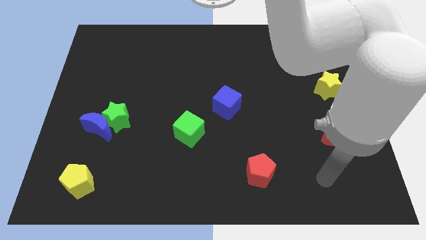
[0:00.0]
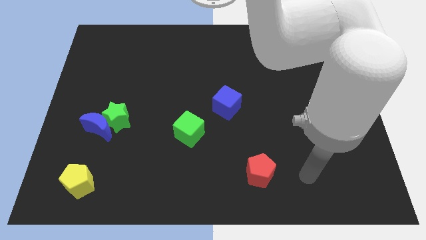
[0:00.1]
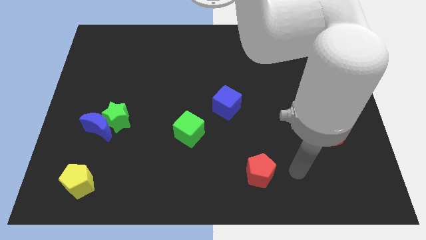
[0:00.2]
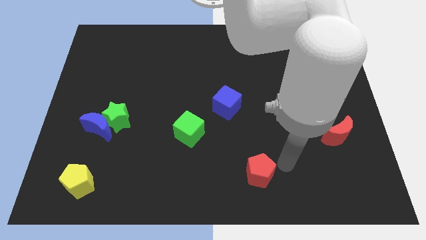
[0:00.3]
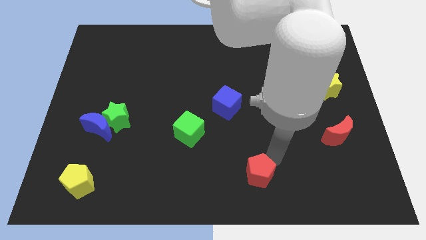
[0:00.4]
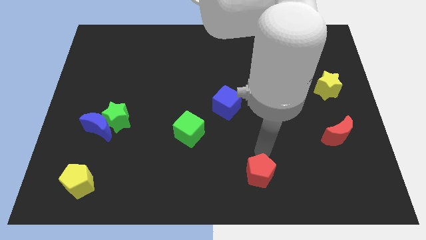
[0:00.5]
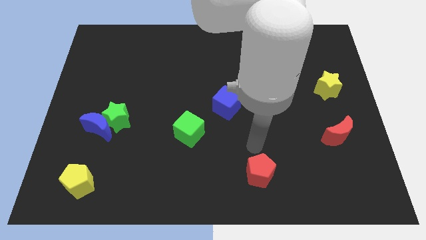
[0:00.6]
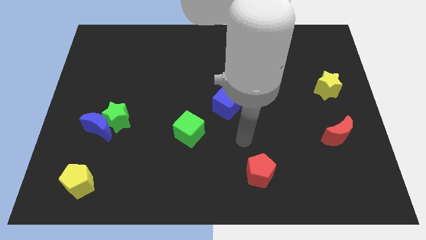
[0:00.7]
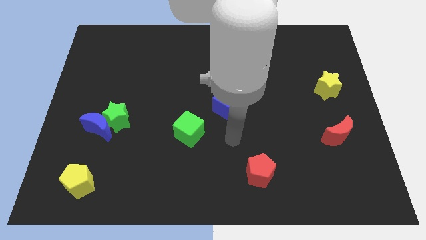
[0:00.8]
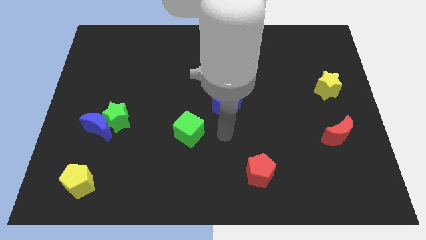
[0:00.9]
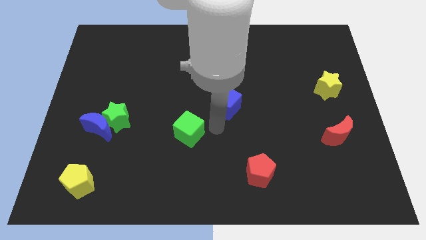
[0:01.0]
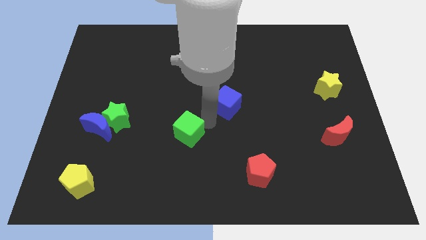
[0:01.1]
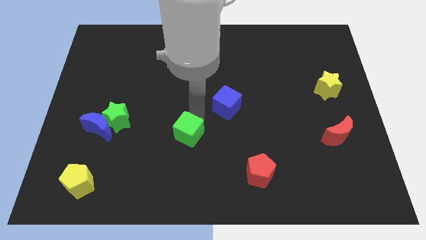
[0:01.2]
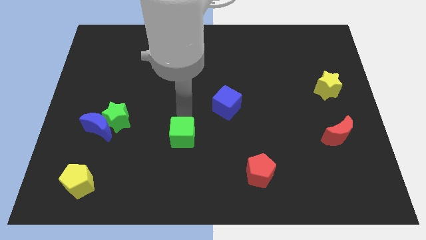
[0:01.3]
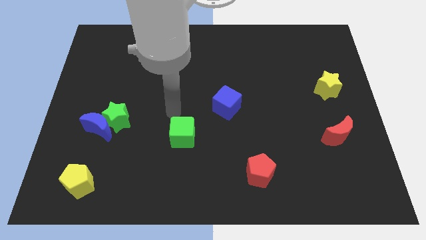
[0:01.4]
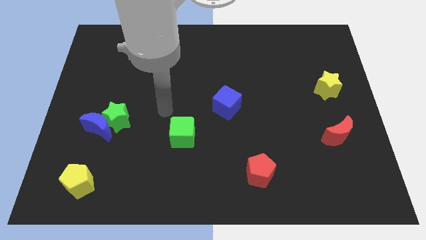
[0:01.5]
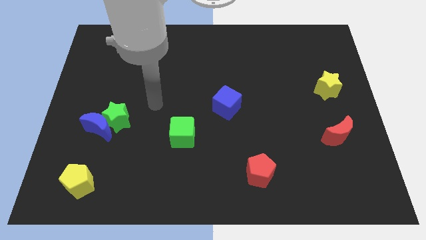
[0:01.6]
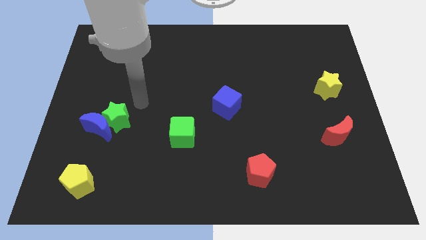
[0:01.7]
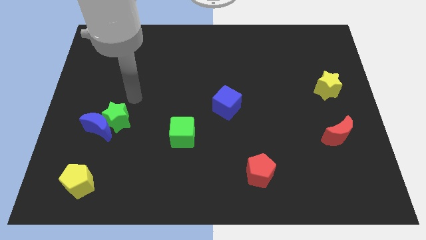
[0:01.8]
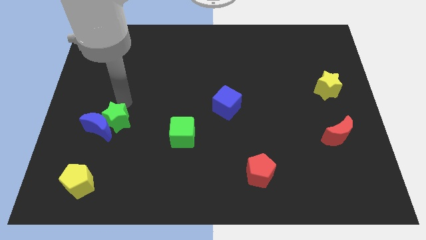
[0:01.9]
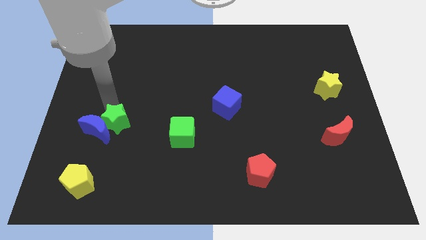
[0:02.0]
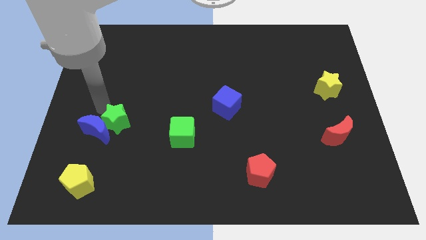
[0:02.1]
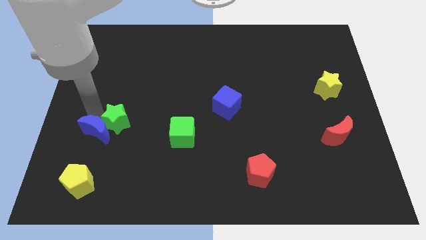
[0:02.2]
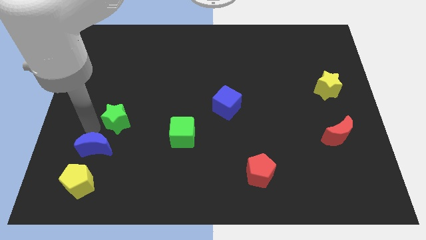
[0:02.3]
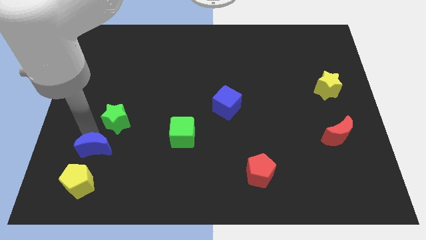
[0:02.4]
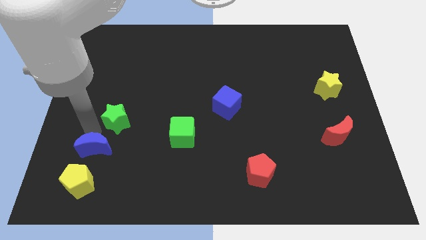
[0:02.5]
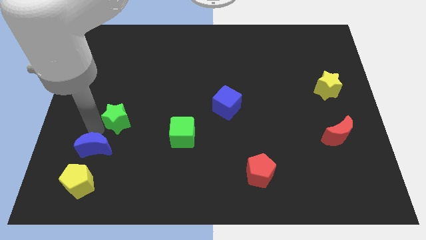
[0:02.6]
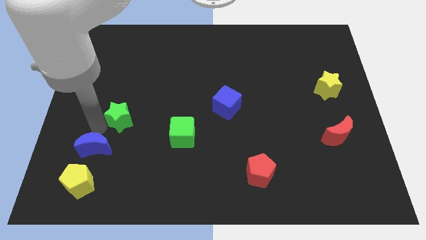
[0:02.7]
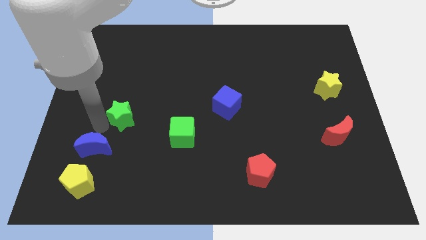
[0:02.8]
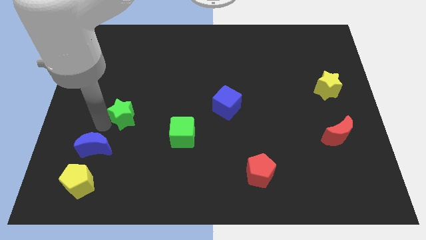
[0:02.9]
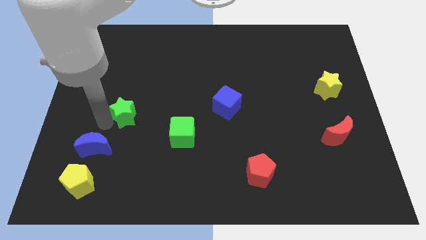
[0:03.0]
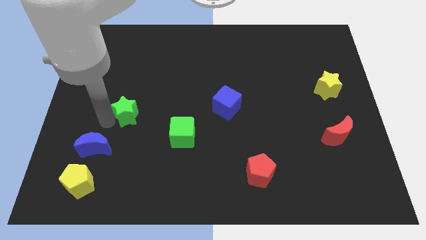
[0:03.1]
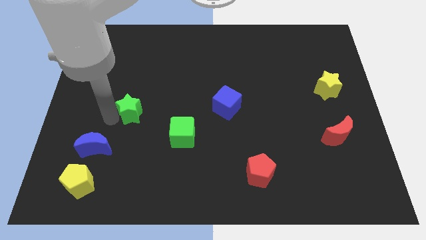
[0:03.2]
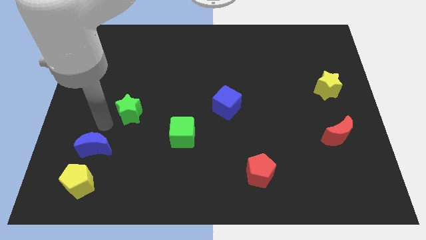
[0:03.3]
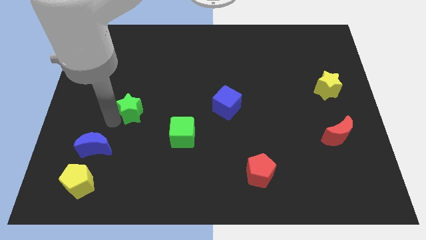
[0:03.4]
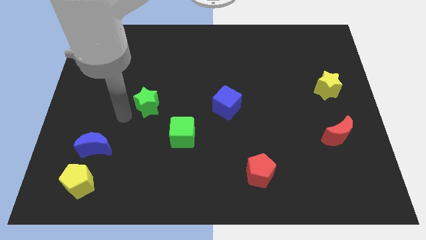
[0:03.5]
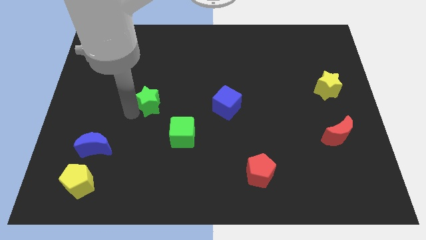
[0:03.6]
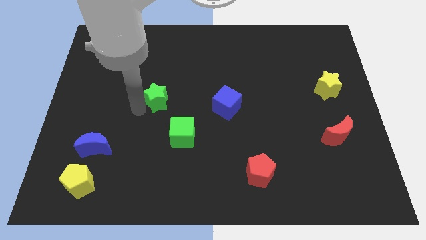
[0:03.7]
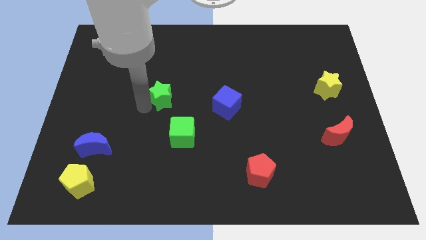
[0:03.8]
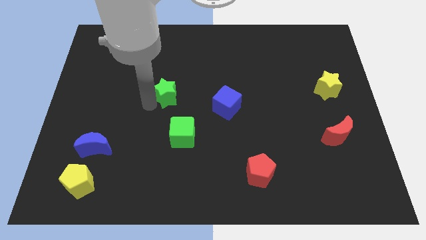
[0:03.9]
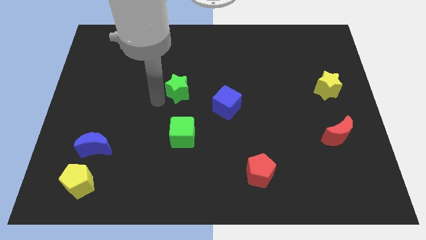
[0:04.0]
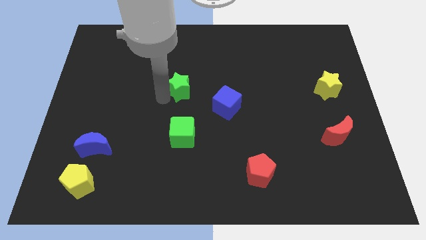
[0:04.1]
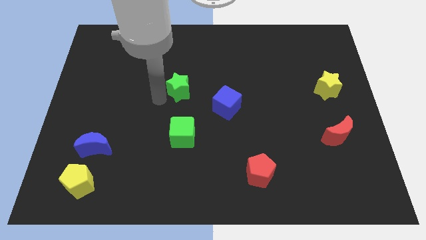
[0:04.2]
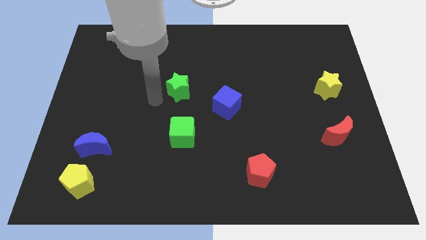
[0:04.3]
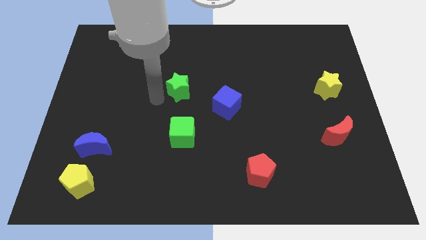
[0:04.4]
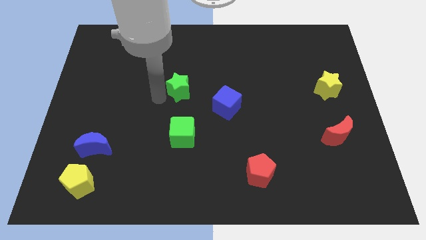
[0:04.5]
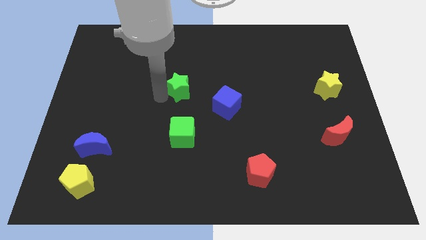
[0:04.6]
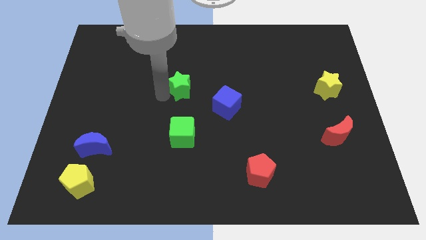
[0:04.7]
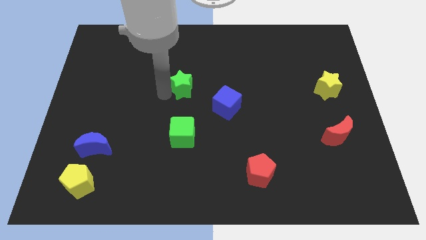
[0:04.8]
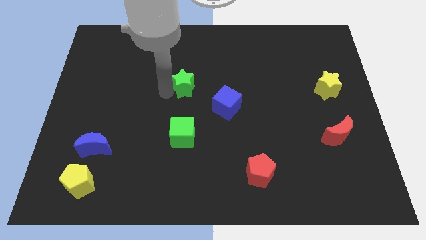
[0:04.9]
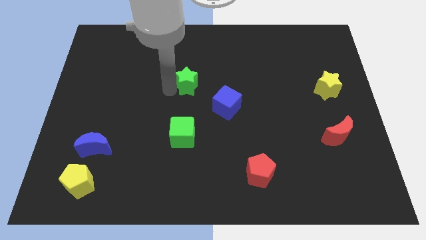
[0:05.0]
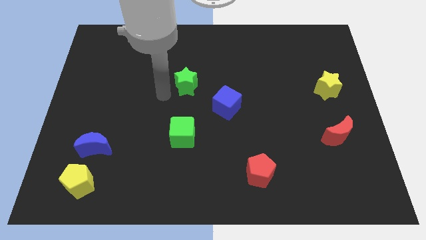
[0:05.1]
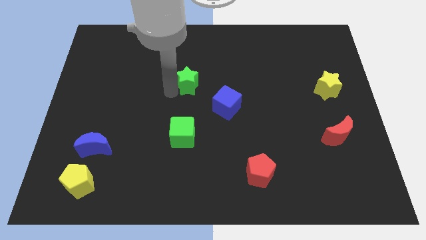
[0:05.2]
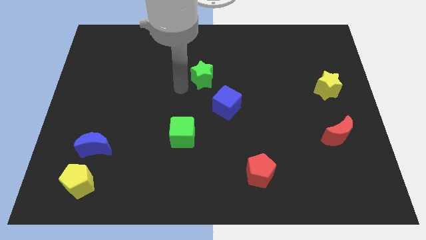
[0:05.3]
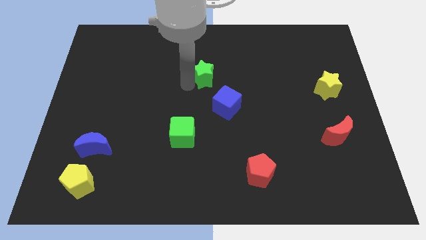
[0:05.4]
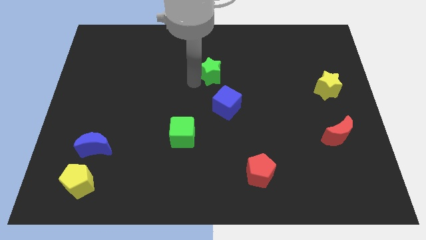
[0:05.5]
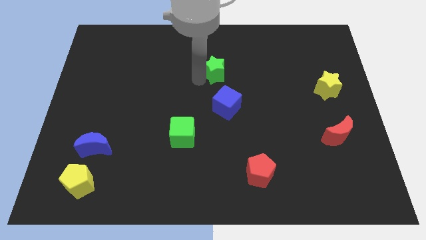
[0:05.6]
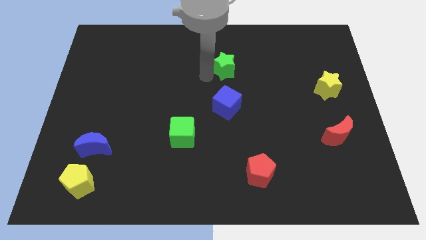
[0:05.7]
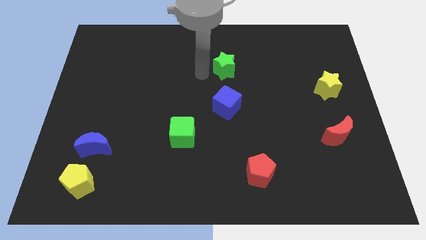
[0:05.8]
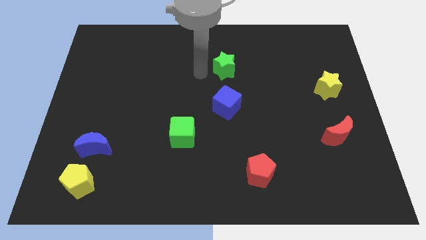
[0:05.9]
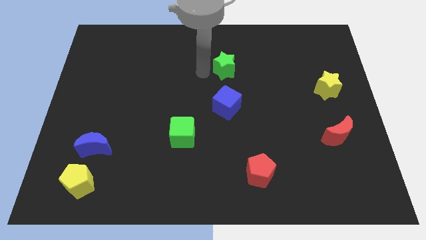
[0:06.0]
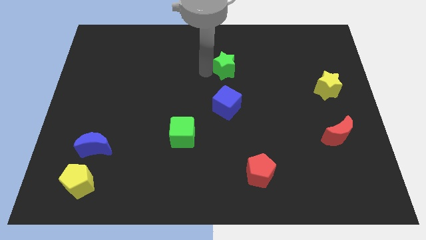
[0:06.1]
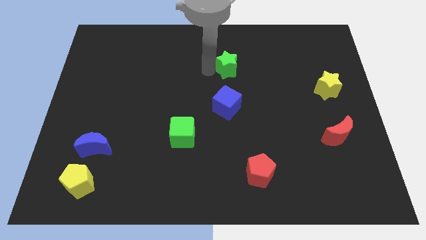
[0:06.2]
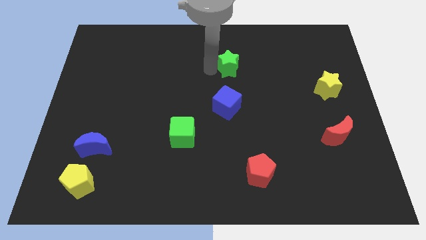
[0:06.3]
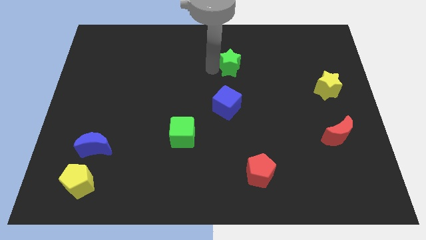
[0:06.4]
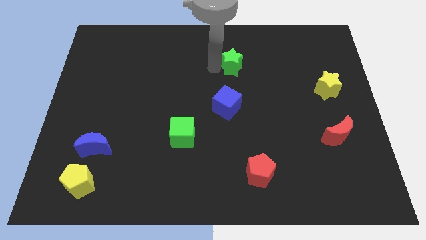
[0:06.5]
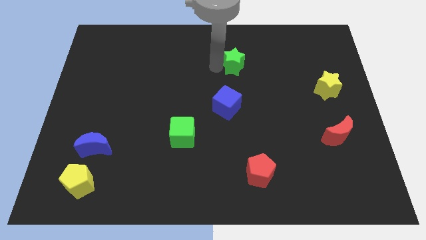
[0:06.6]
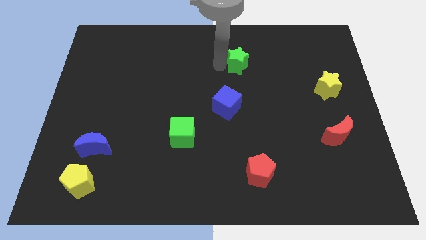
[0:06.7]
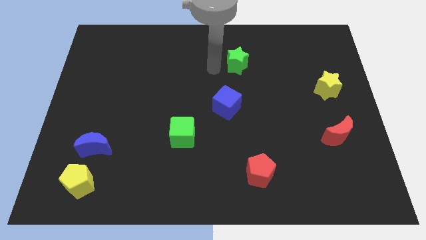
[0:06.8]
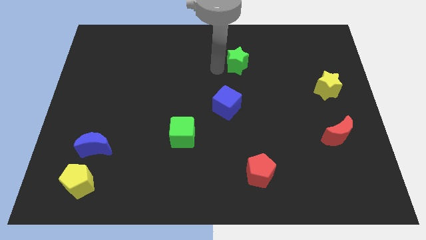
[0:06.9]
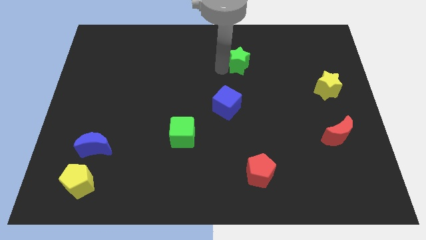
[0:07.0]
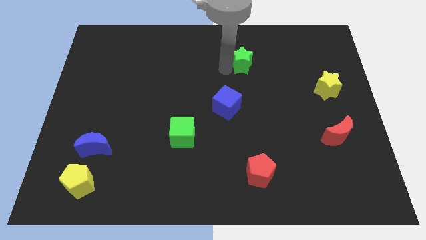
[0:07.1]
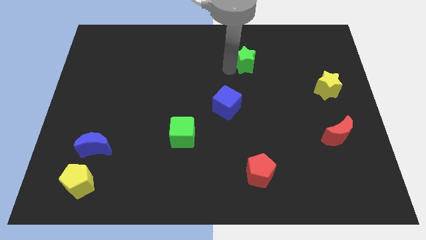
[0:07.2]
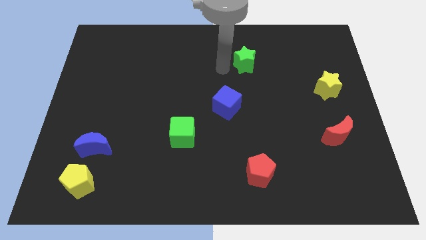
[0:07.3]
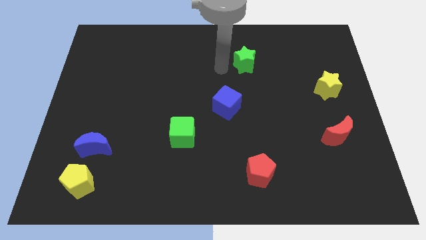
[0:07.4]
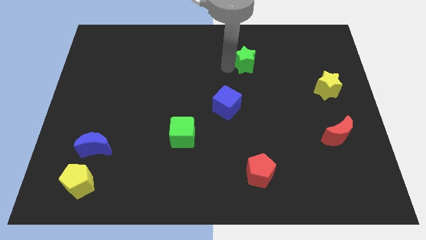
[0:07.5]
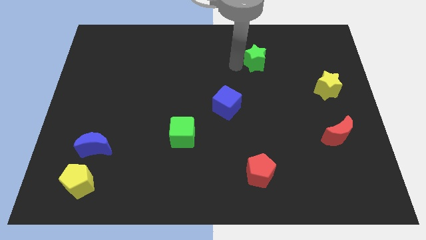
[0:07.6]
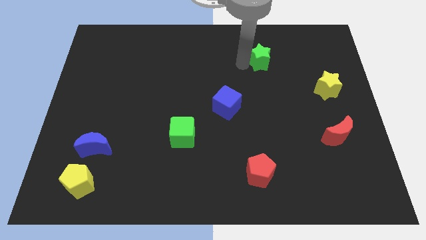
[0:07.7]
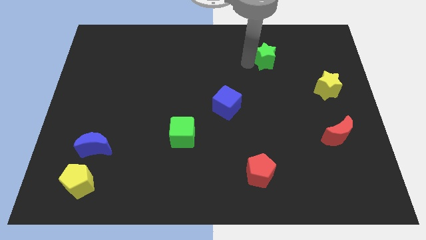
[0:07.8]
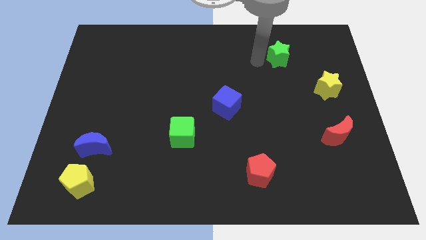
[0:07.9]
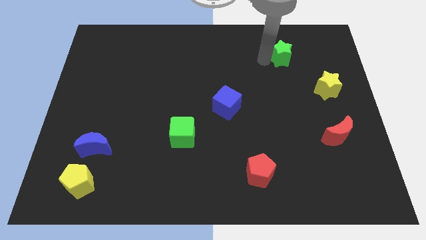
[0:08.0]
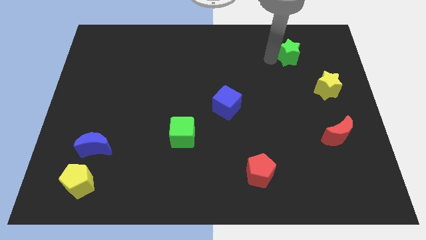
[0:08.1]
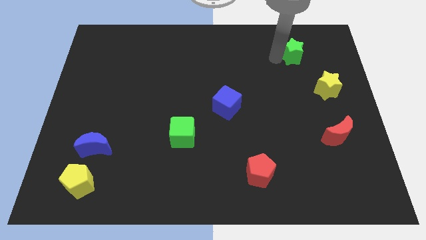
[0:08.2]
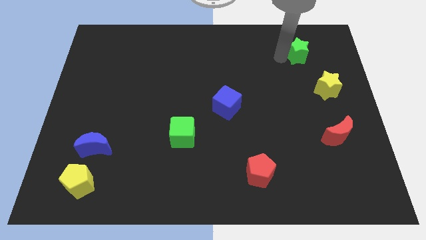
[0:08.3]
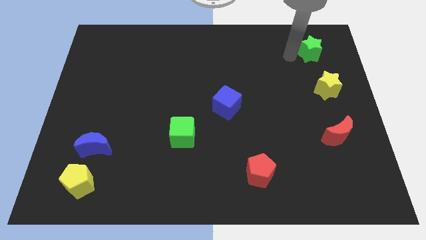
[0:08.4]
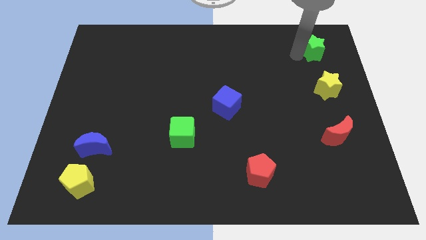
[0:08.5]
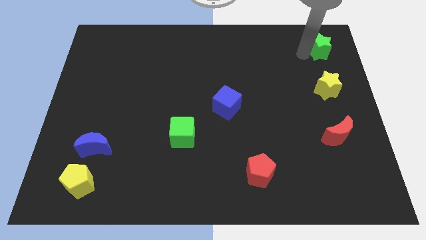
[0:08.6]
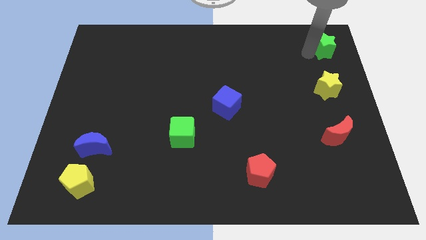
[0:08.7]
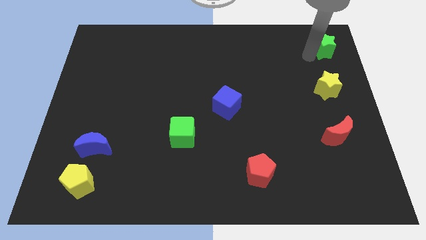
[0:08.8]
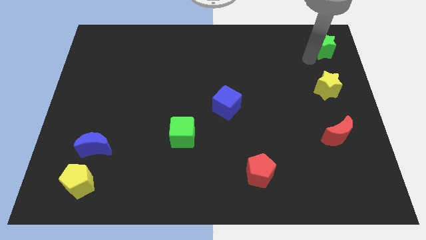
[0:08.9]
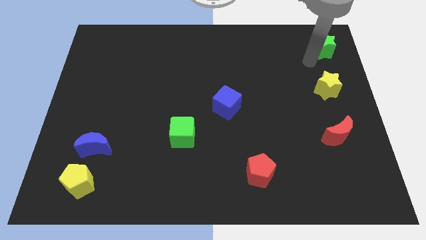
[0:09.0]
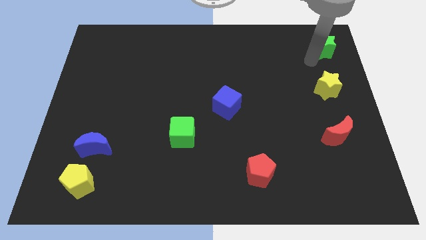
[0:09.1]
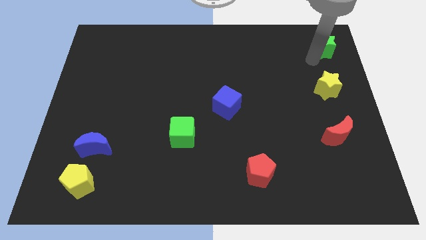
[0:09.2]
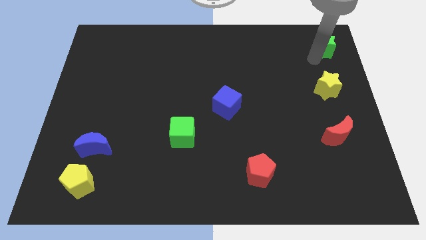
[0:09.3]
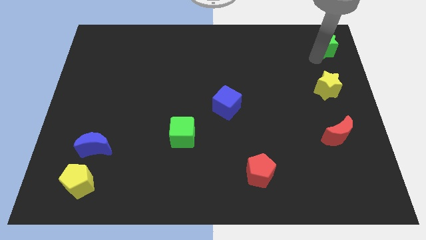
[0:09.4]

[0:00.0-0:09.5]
slide the green star to the top right
